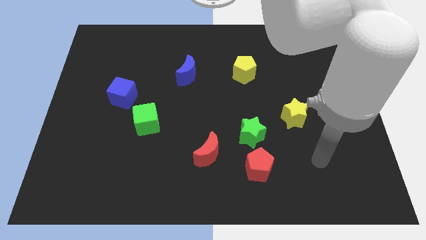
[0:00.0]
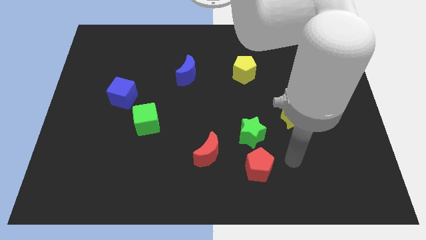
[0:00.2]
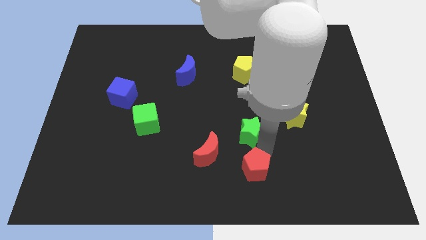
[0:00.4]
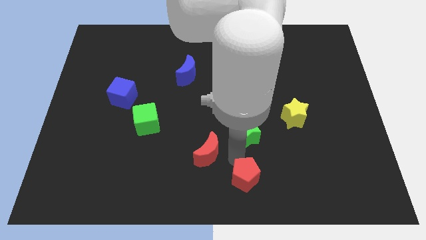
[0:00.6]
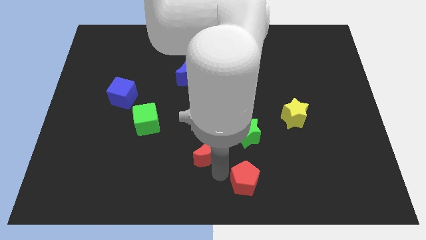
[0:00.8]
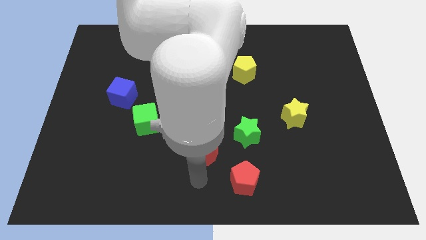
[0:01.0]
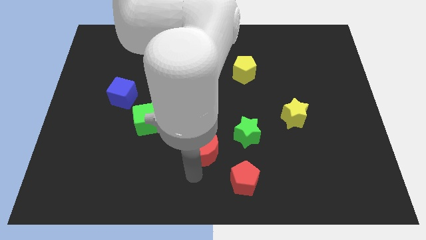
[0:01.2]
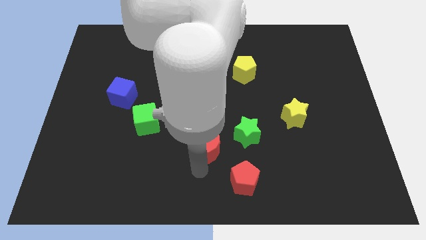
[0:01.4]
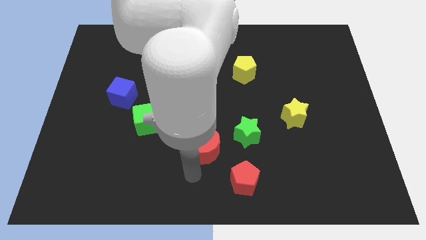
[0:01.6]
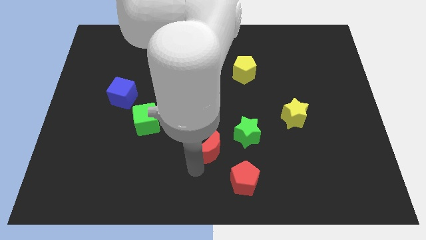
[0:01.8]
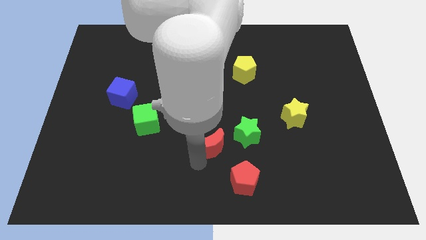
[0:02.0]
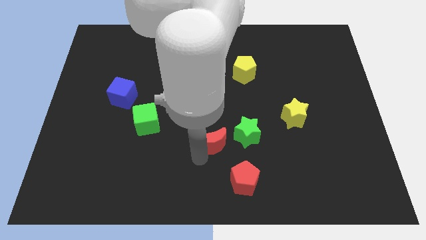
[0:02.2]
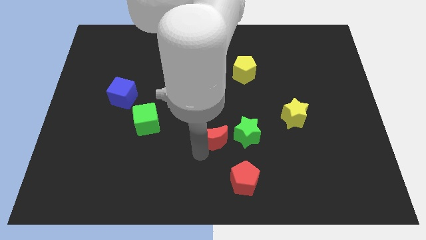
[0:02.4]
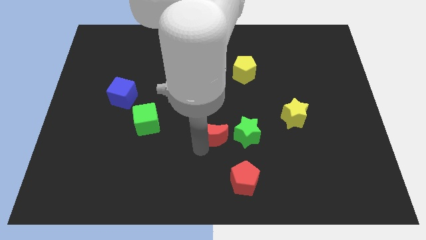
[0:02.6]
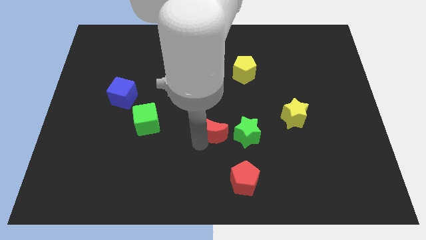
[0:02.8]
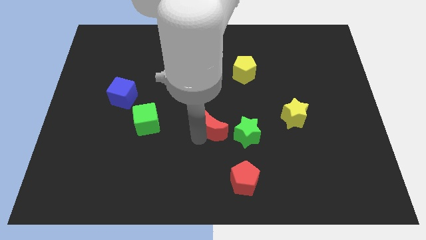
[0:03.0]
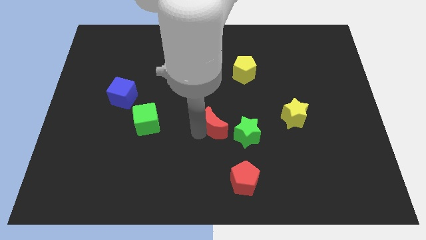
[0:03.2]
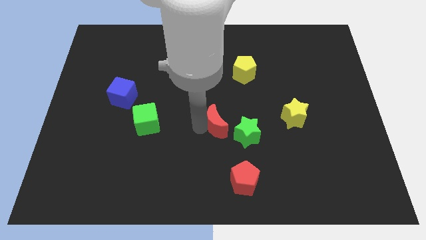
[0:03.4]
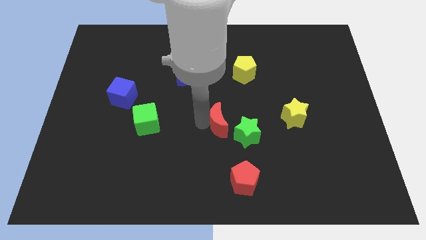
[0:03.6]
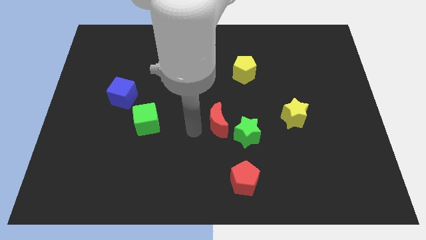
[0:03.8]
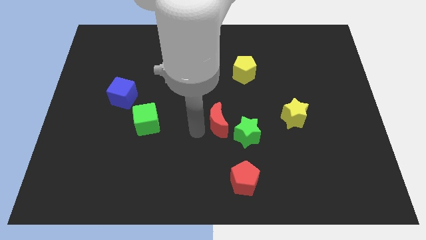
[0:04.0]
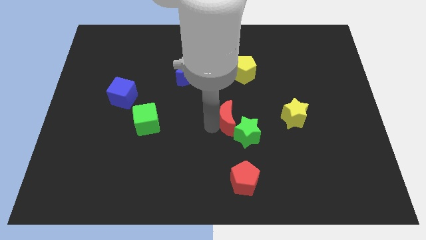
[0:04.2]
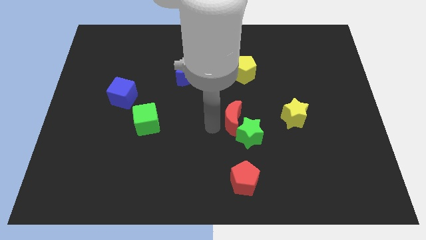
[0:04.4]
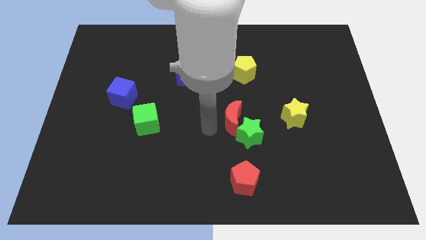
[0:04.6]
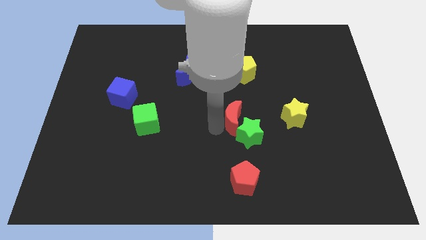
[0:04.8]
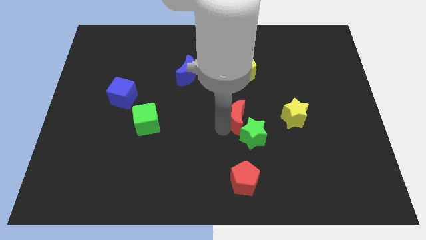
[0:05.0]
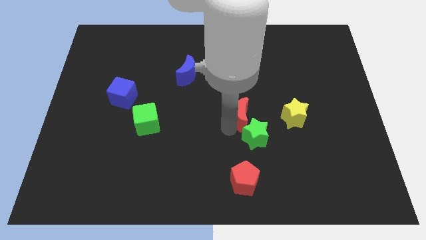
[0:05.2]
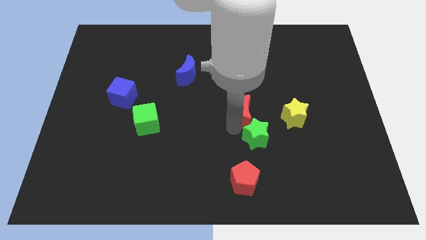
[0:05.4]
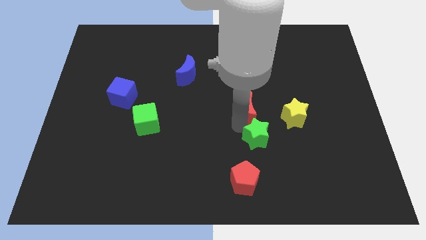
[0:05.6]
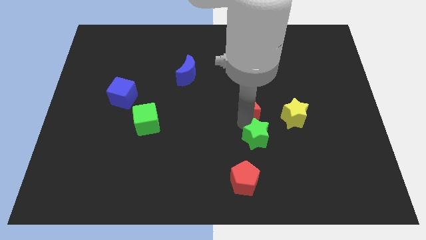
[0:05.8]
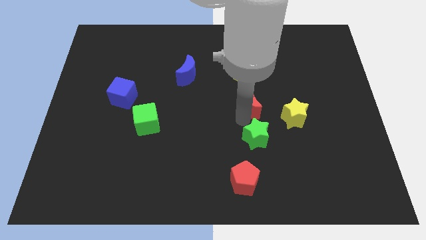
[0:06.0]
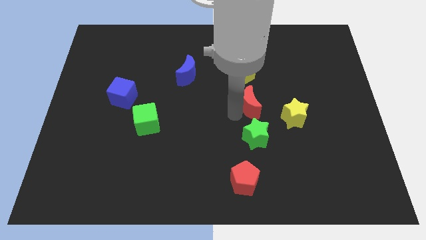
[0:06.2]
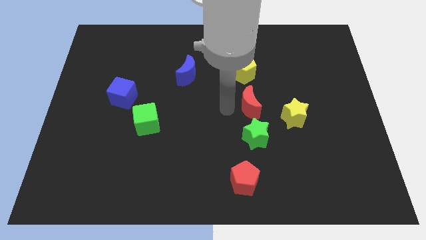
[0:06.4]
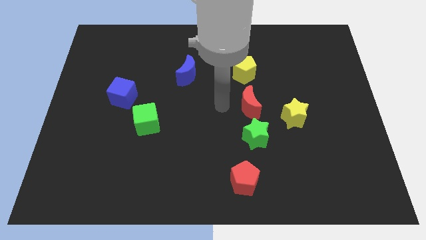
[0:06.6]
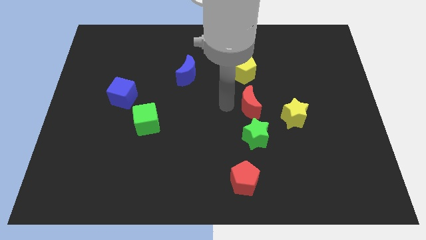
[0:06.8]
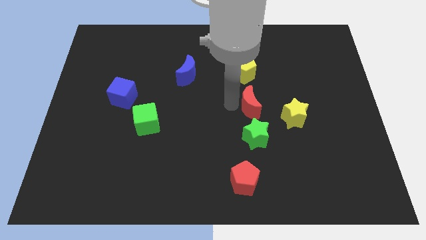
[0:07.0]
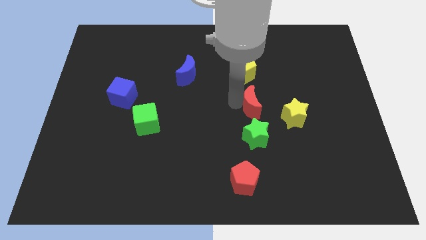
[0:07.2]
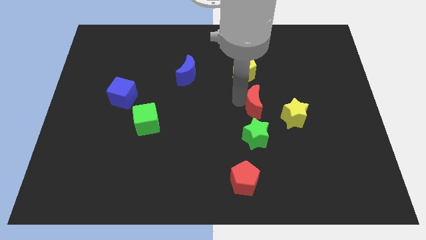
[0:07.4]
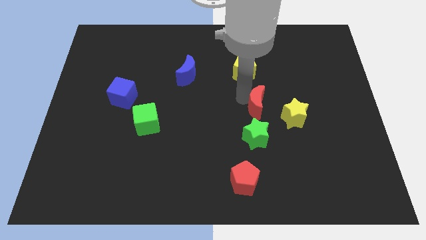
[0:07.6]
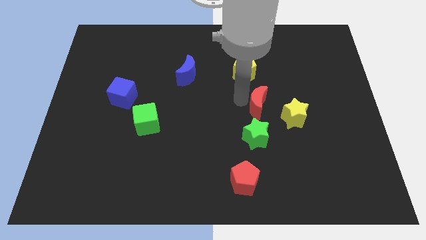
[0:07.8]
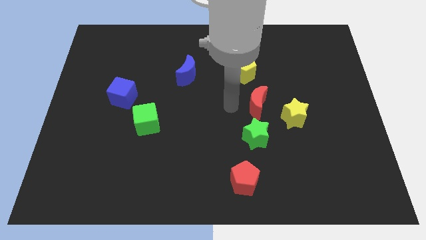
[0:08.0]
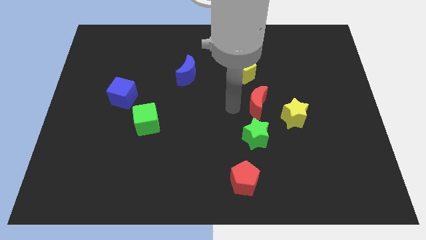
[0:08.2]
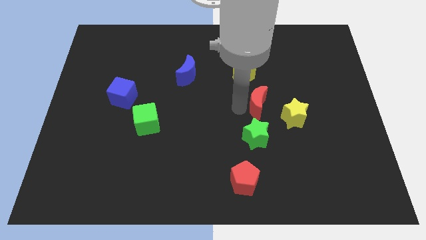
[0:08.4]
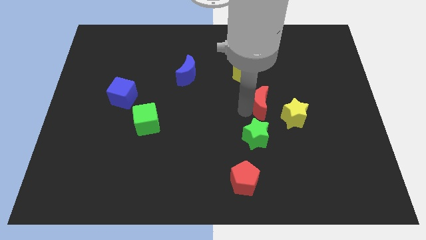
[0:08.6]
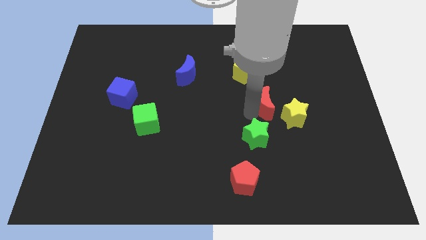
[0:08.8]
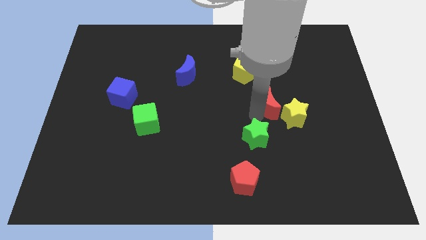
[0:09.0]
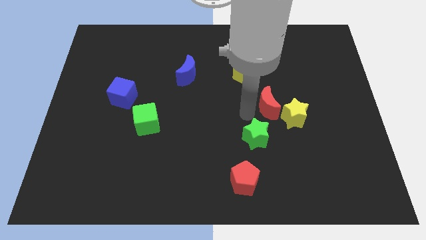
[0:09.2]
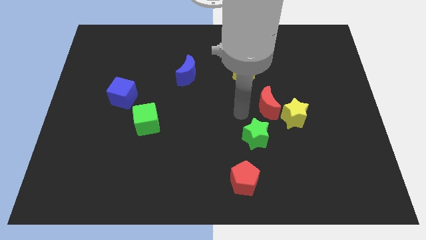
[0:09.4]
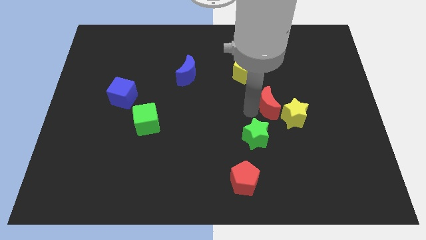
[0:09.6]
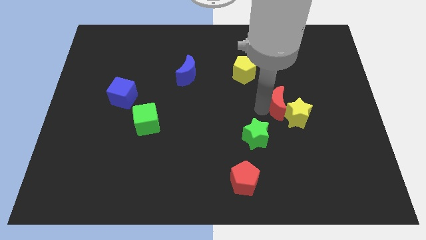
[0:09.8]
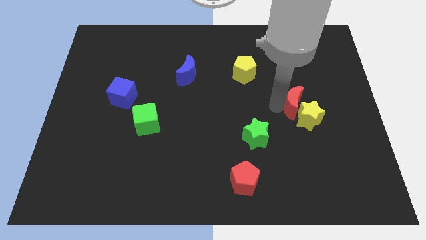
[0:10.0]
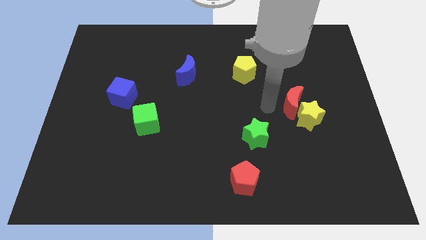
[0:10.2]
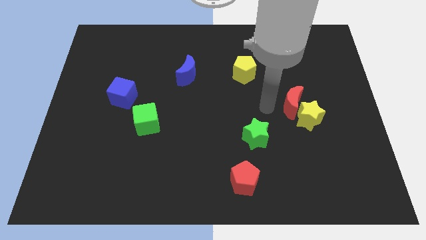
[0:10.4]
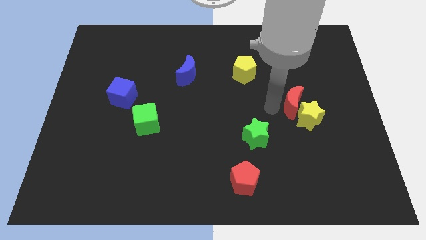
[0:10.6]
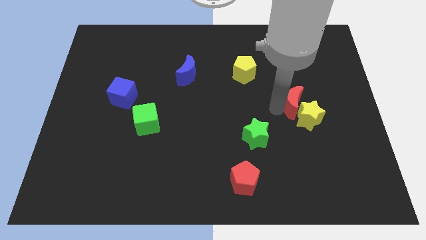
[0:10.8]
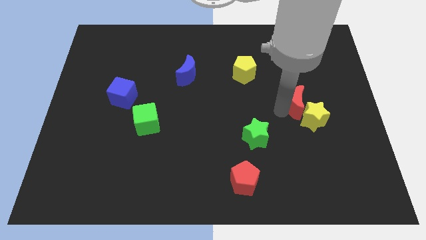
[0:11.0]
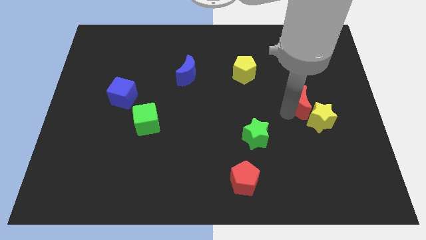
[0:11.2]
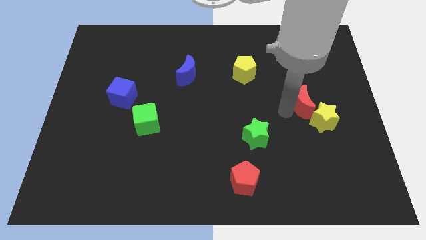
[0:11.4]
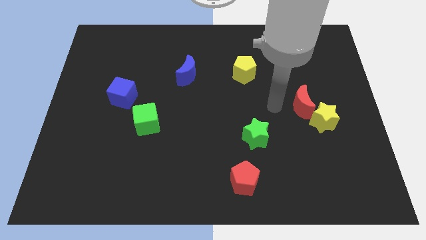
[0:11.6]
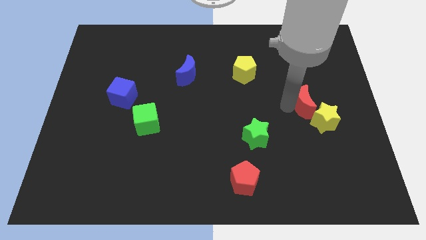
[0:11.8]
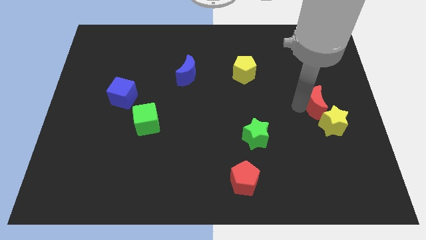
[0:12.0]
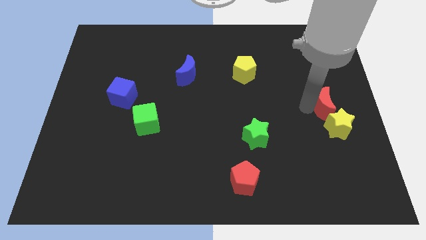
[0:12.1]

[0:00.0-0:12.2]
push the red moon to the right side of the board
